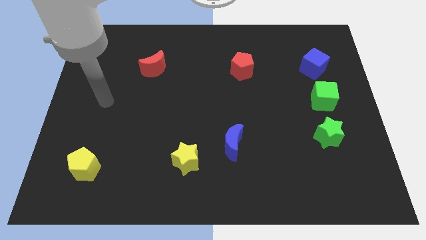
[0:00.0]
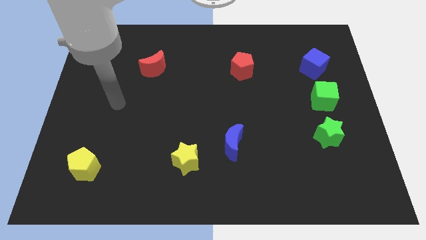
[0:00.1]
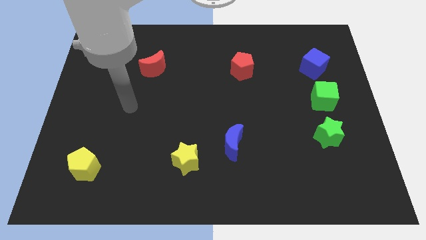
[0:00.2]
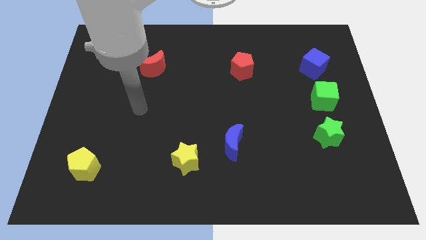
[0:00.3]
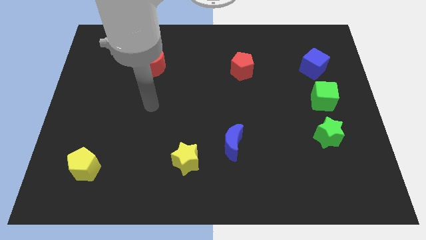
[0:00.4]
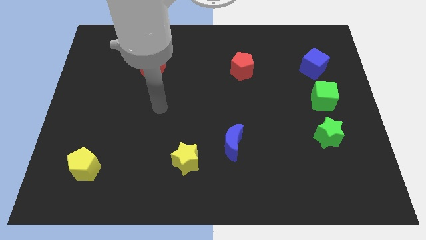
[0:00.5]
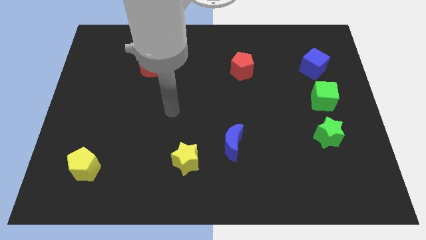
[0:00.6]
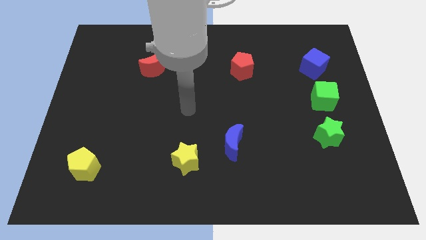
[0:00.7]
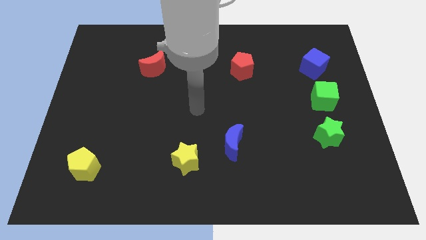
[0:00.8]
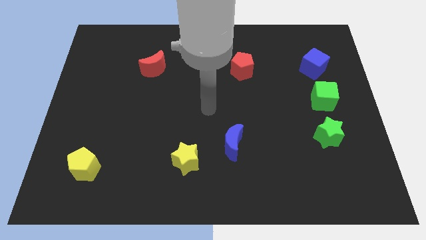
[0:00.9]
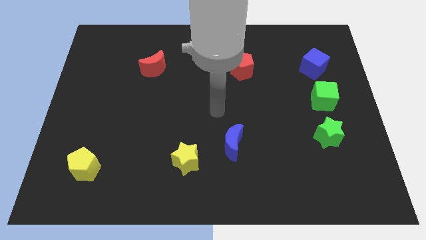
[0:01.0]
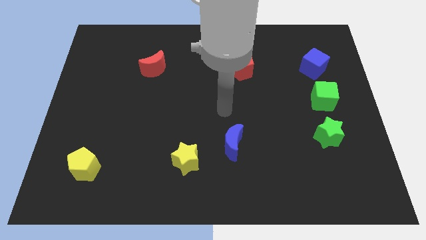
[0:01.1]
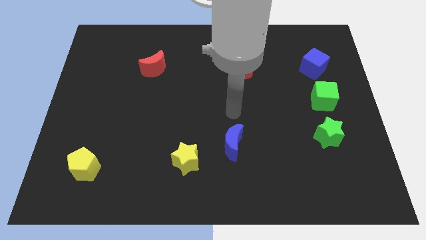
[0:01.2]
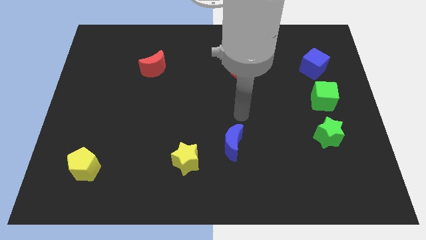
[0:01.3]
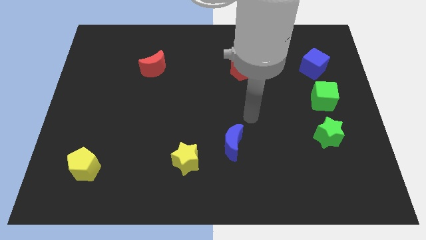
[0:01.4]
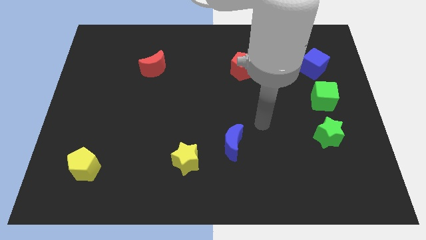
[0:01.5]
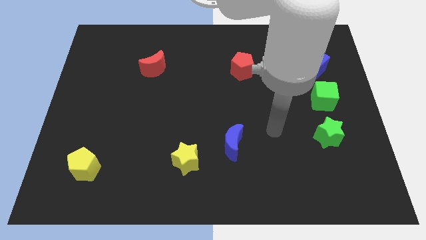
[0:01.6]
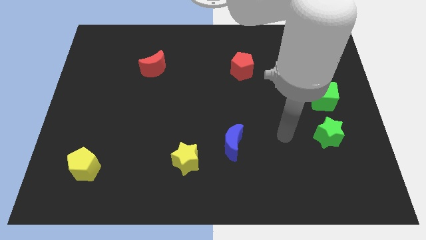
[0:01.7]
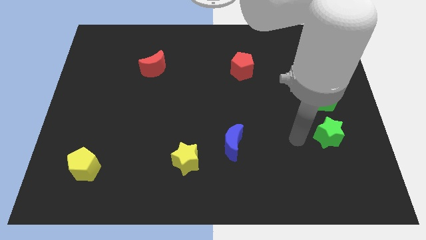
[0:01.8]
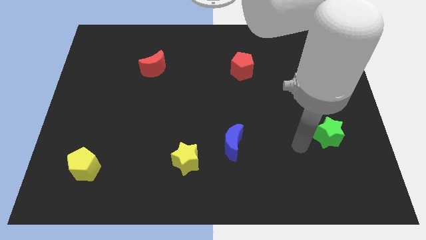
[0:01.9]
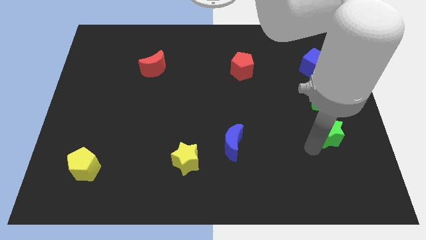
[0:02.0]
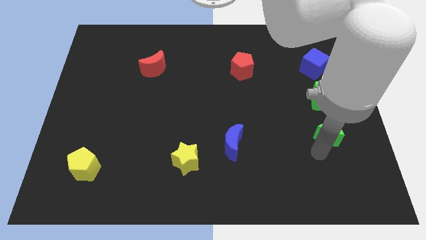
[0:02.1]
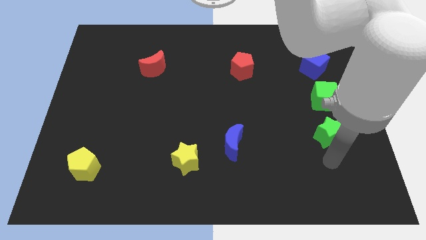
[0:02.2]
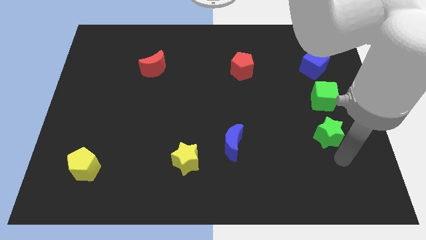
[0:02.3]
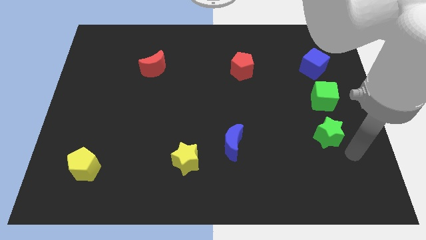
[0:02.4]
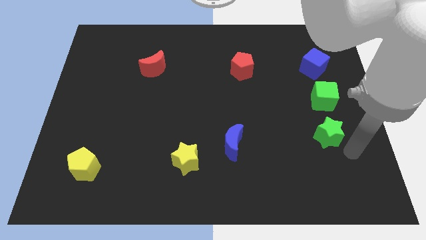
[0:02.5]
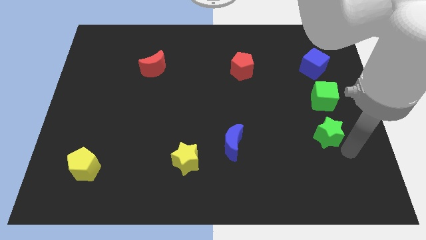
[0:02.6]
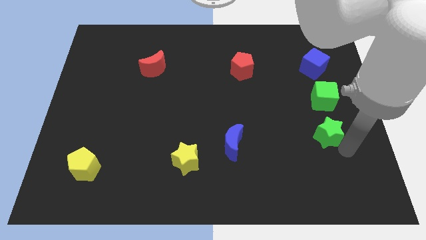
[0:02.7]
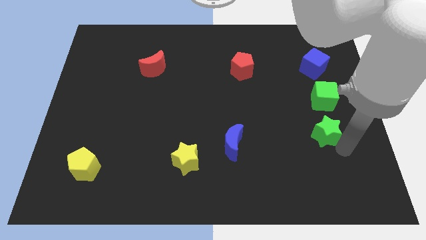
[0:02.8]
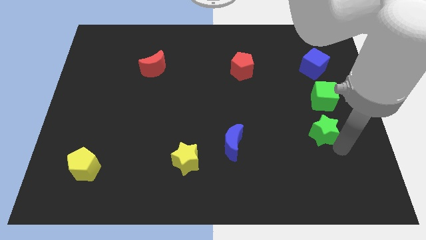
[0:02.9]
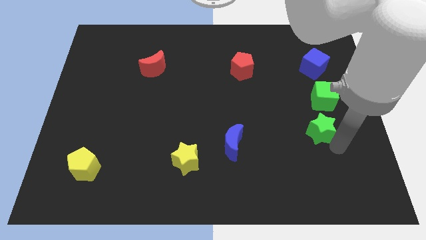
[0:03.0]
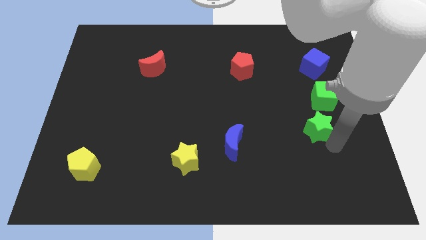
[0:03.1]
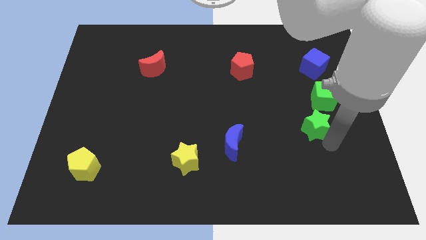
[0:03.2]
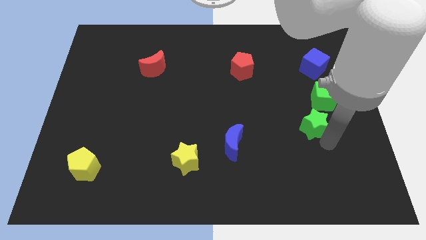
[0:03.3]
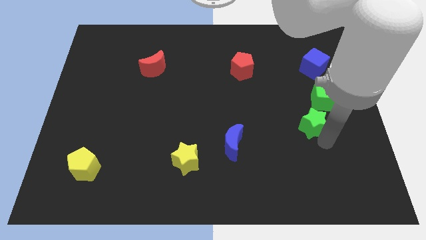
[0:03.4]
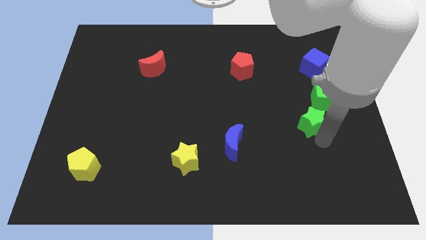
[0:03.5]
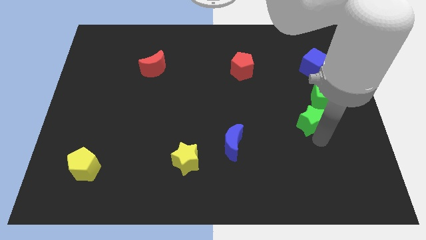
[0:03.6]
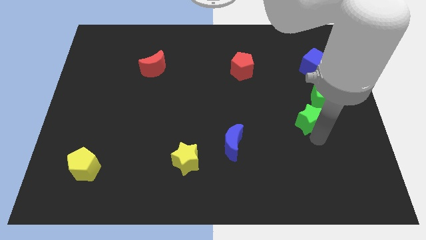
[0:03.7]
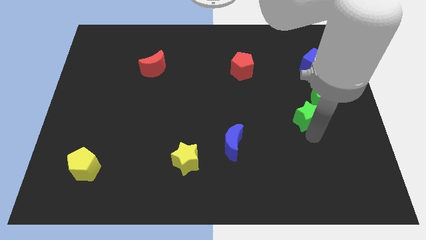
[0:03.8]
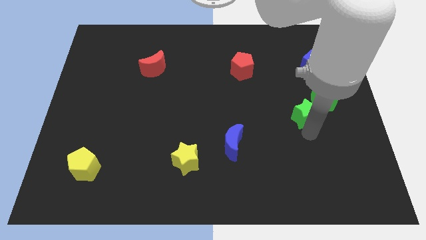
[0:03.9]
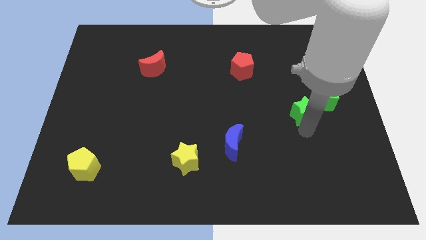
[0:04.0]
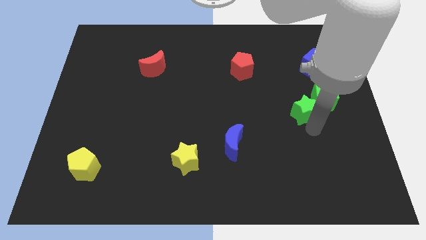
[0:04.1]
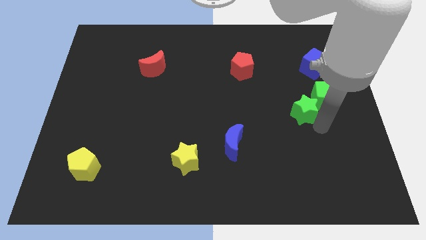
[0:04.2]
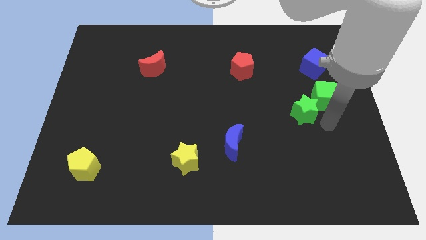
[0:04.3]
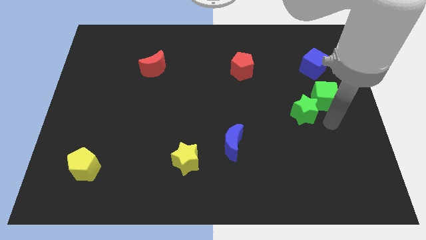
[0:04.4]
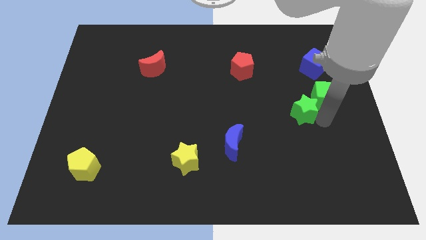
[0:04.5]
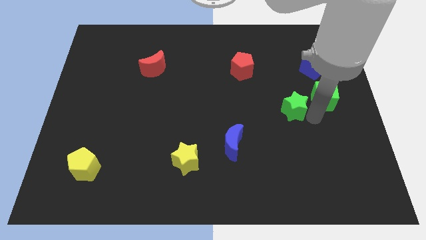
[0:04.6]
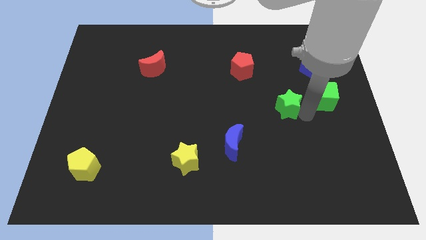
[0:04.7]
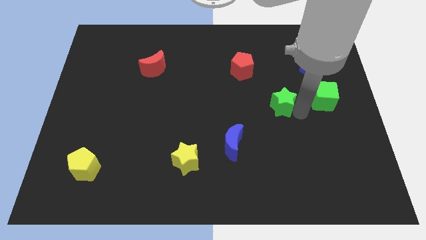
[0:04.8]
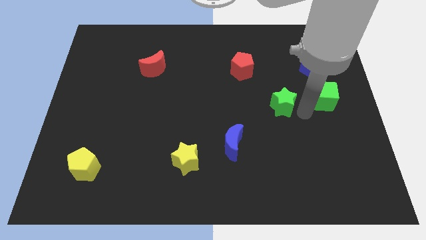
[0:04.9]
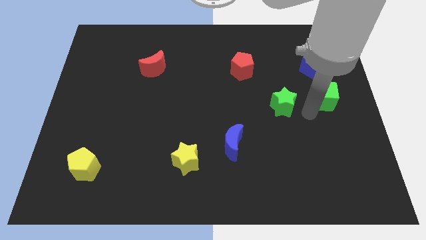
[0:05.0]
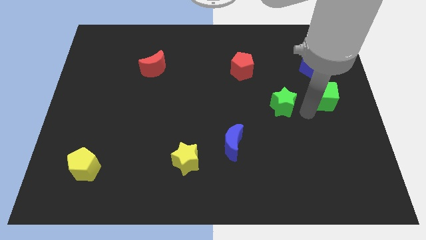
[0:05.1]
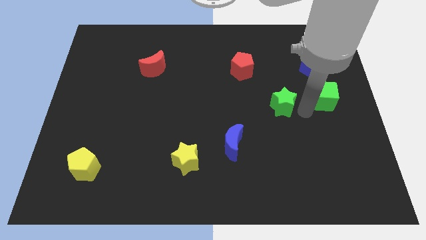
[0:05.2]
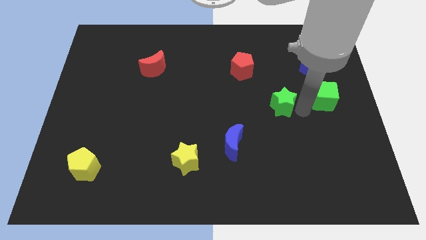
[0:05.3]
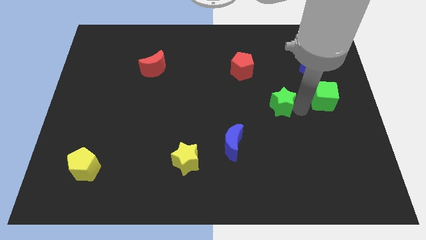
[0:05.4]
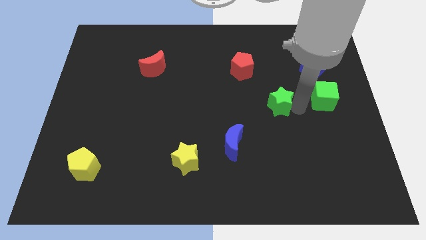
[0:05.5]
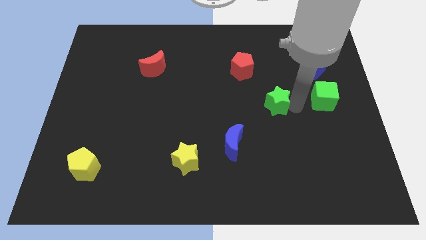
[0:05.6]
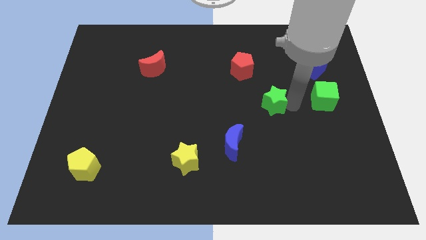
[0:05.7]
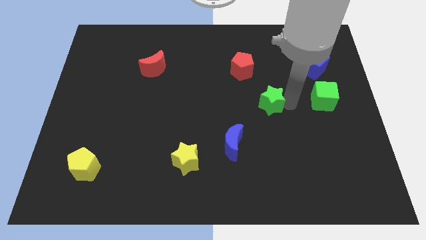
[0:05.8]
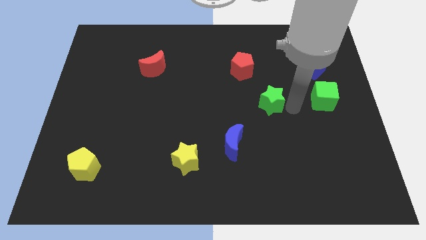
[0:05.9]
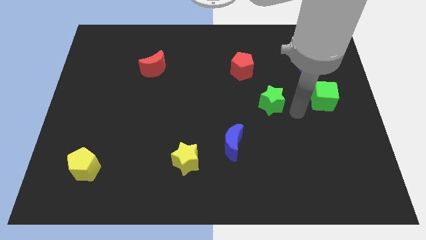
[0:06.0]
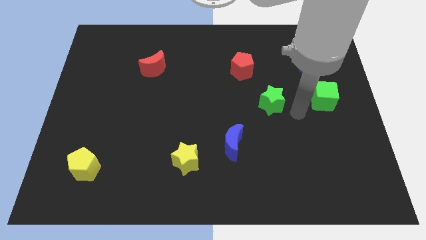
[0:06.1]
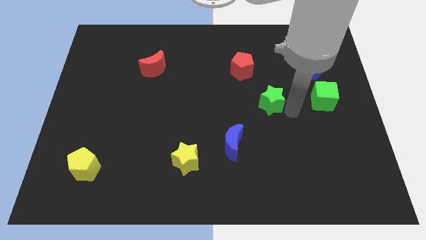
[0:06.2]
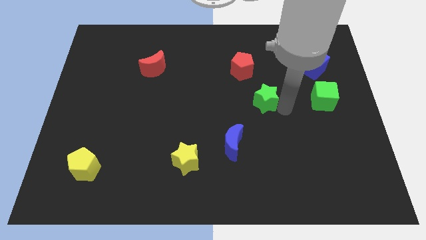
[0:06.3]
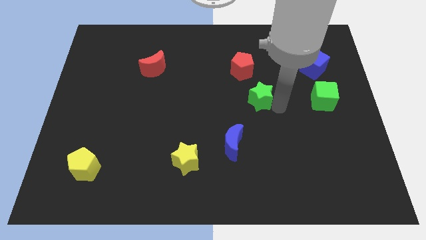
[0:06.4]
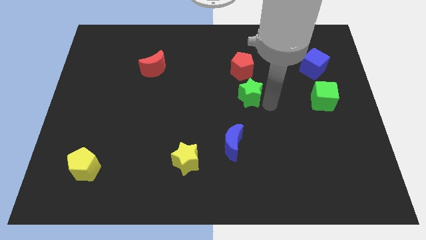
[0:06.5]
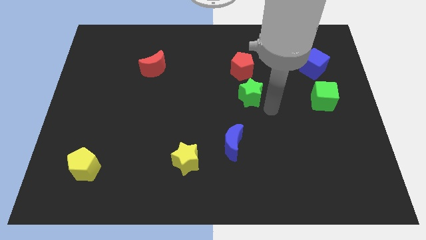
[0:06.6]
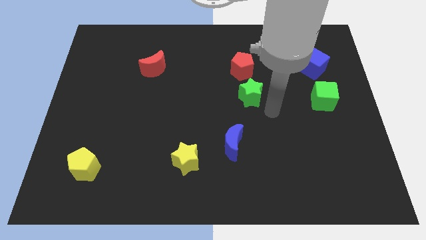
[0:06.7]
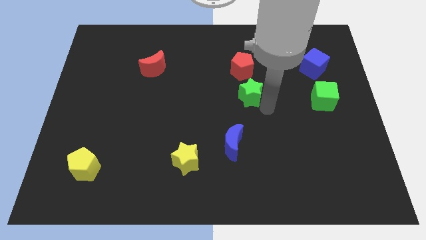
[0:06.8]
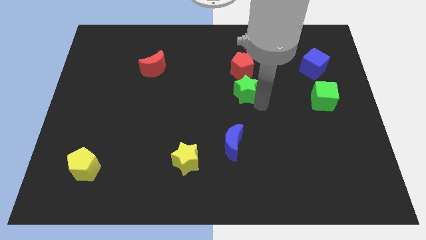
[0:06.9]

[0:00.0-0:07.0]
push the green star upwards and left diagonally

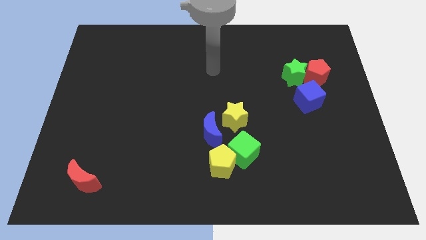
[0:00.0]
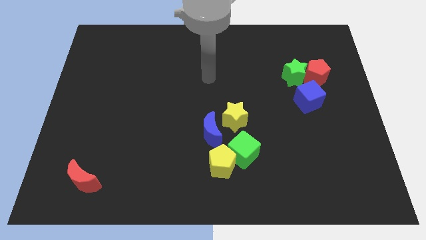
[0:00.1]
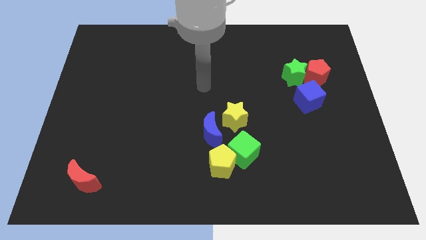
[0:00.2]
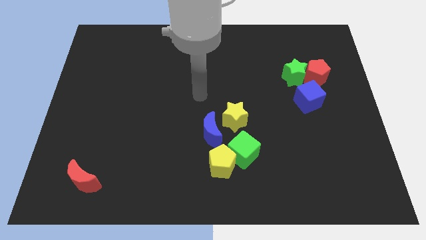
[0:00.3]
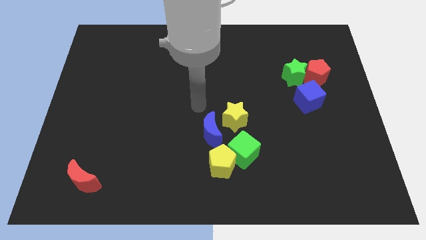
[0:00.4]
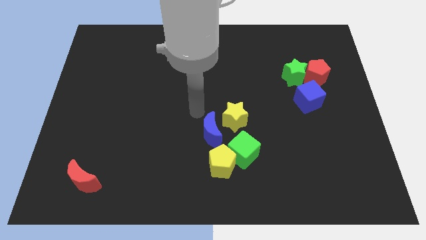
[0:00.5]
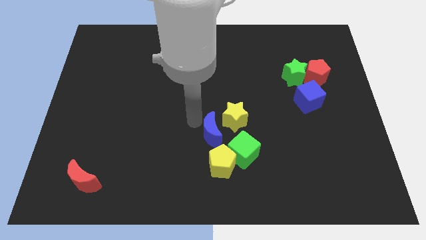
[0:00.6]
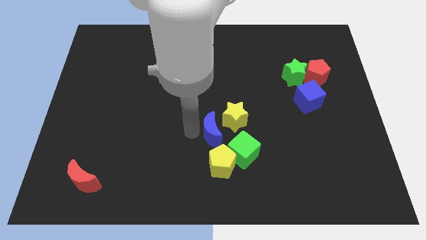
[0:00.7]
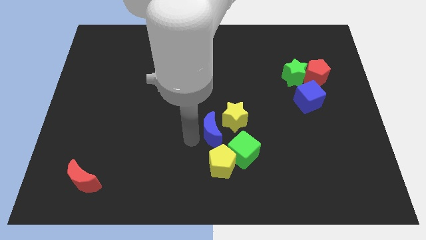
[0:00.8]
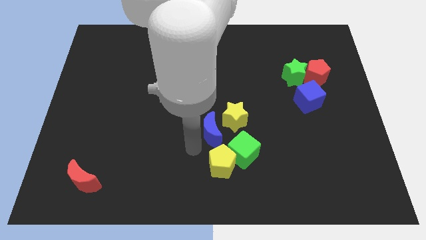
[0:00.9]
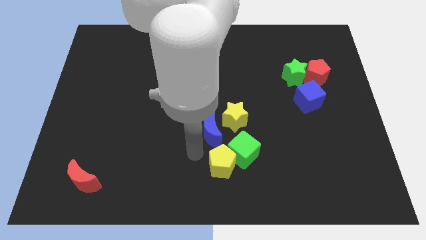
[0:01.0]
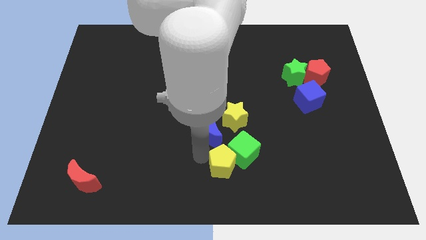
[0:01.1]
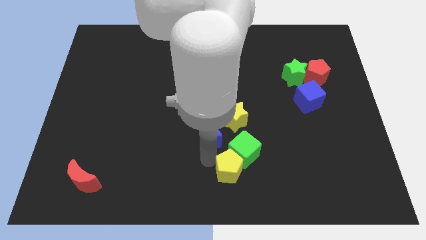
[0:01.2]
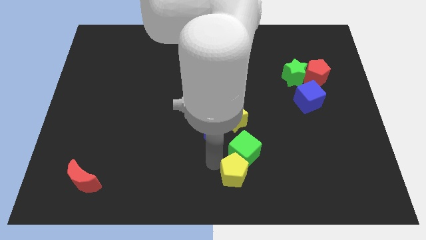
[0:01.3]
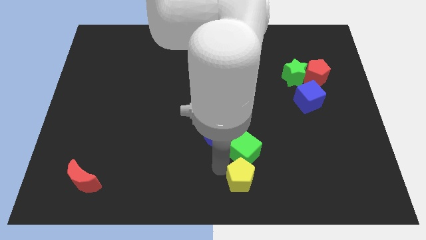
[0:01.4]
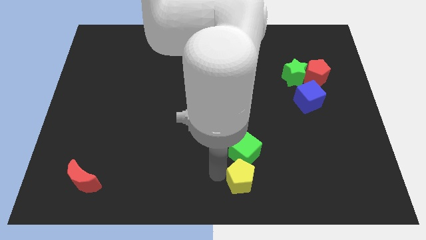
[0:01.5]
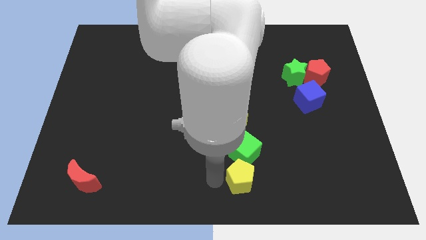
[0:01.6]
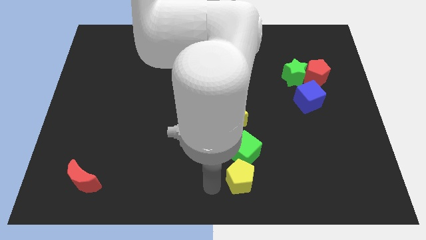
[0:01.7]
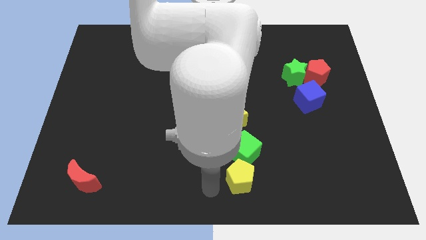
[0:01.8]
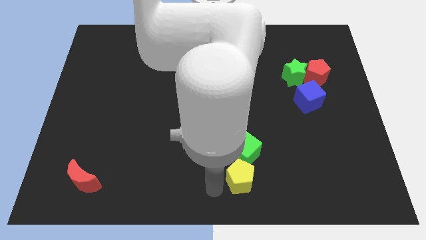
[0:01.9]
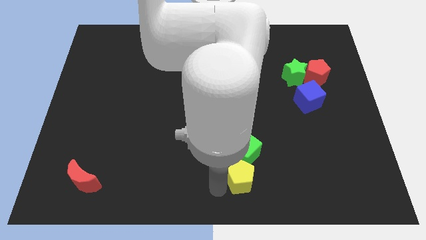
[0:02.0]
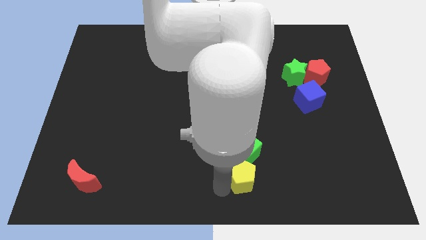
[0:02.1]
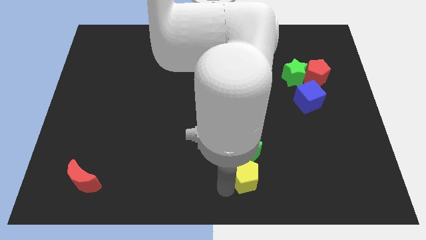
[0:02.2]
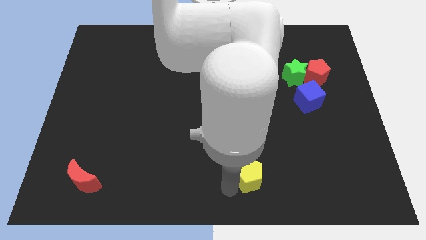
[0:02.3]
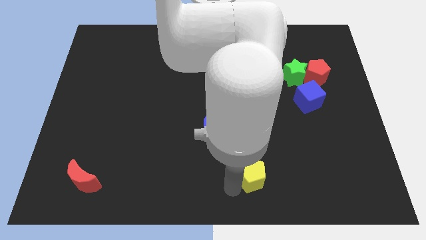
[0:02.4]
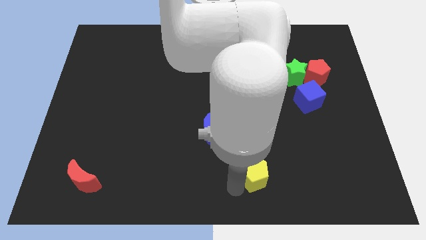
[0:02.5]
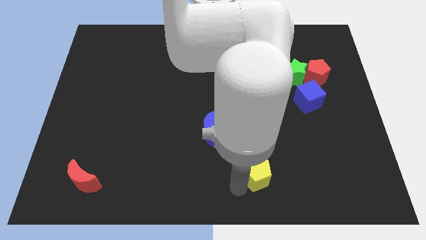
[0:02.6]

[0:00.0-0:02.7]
push the yellow pentagon a little bit to the right
